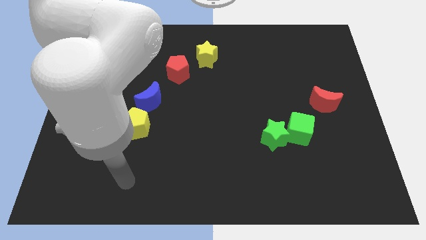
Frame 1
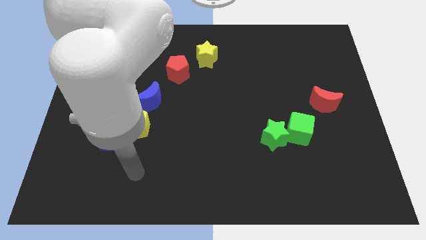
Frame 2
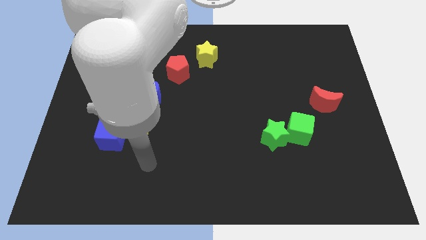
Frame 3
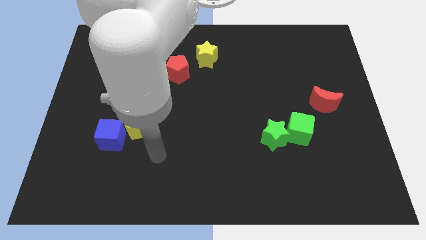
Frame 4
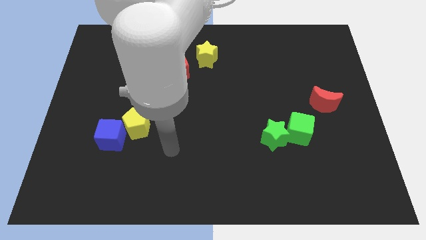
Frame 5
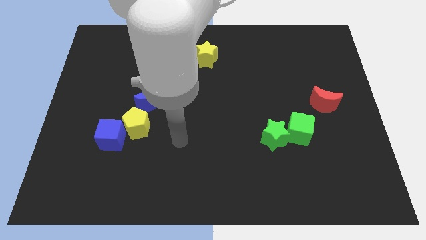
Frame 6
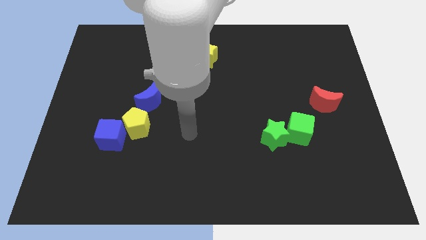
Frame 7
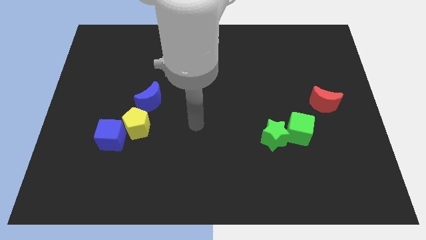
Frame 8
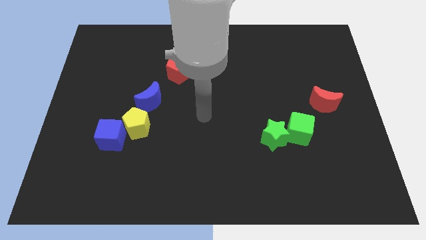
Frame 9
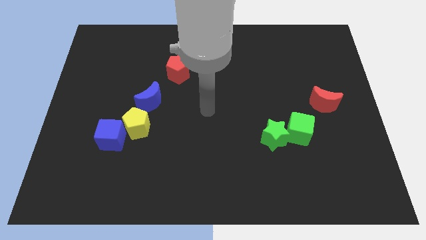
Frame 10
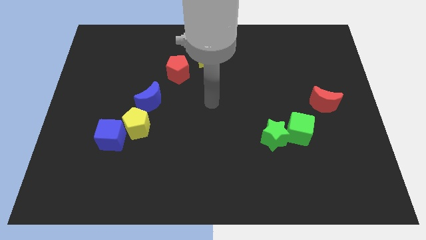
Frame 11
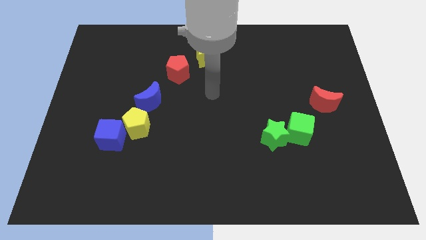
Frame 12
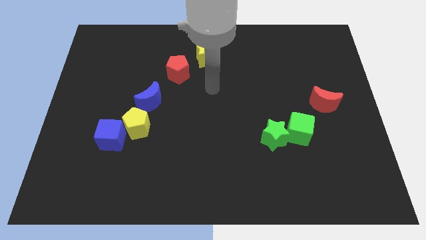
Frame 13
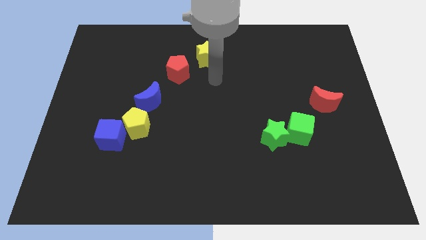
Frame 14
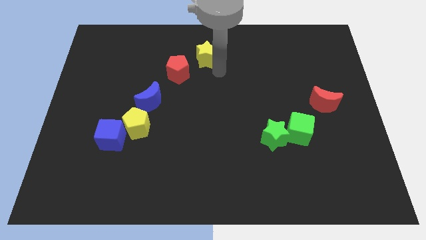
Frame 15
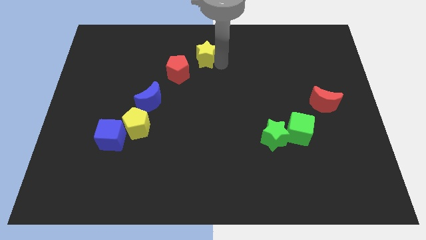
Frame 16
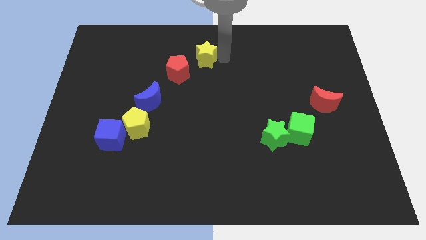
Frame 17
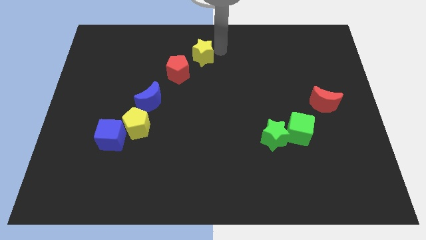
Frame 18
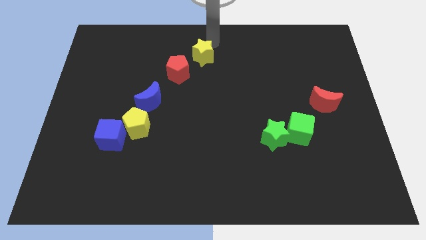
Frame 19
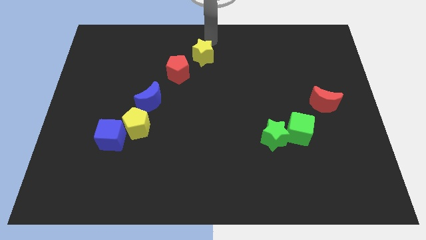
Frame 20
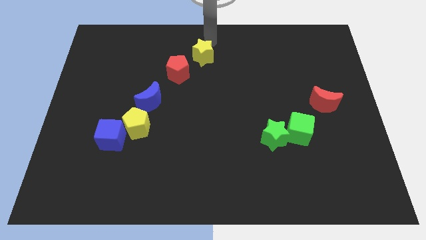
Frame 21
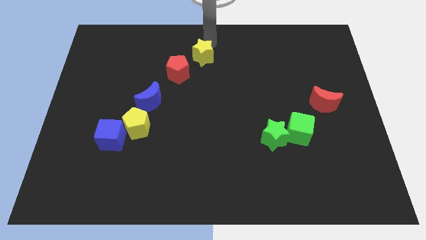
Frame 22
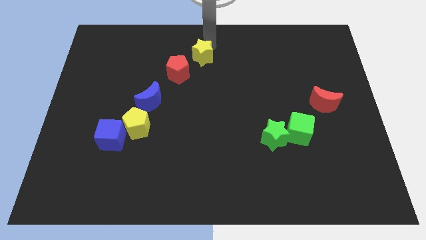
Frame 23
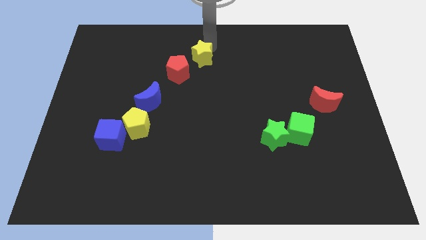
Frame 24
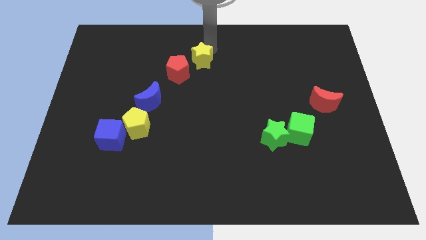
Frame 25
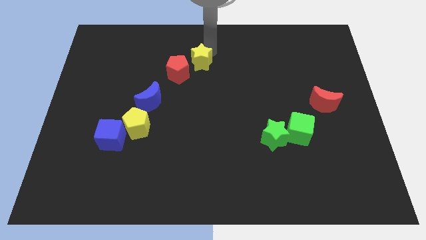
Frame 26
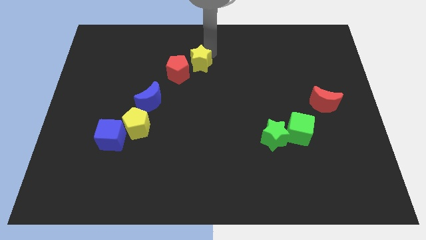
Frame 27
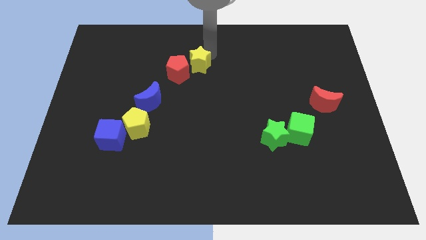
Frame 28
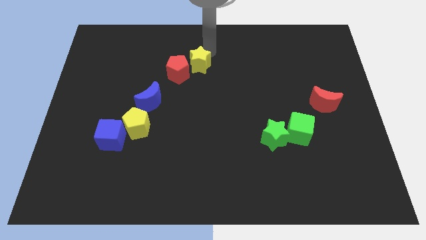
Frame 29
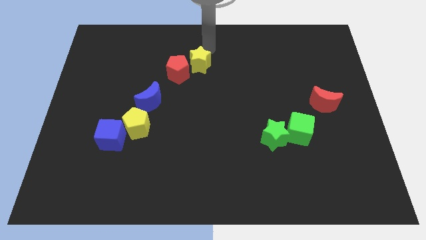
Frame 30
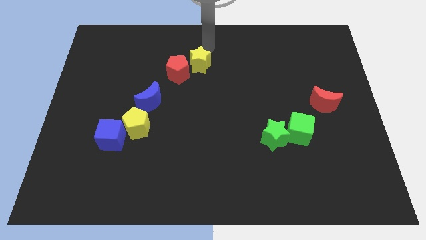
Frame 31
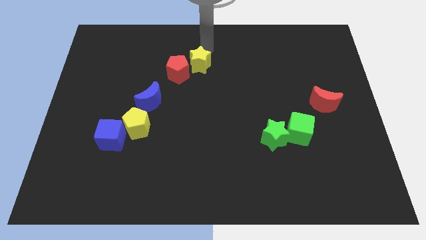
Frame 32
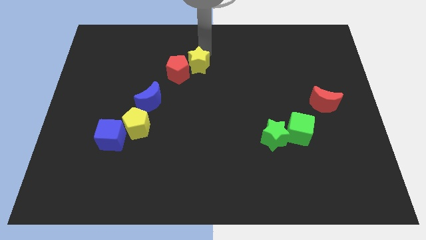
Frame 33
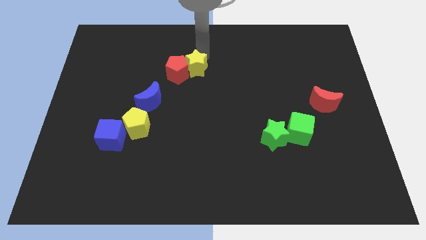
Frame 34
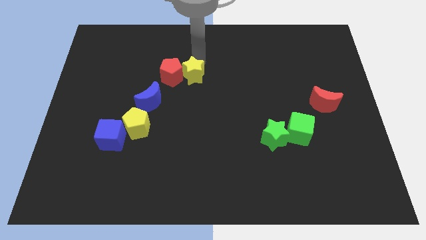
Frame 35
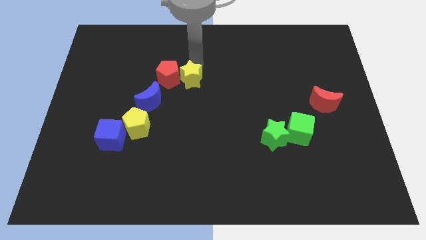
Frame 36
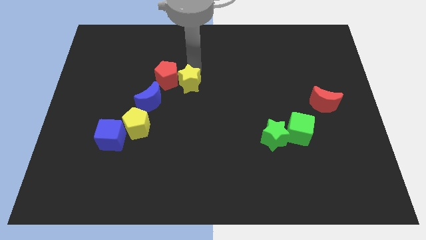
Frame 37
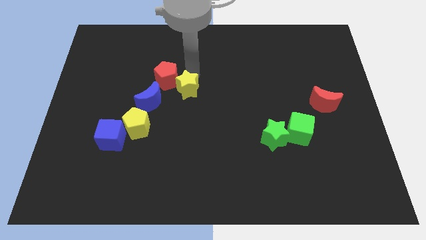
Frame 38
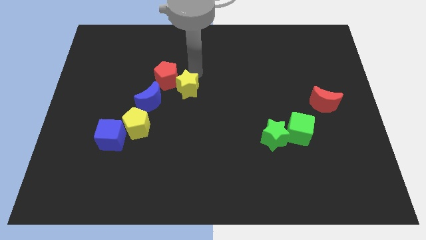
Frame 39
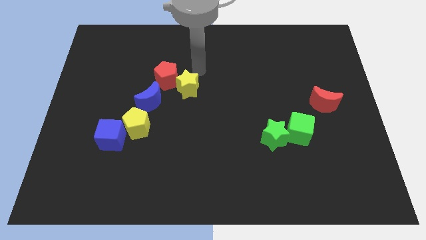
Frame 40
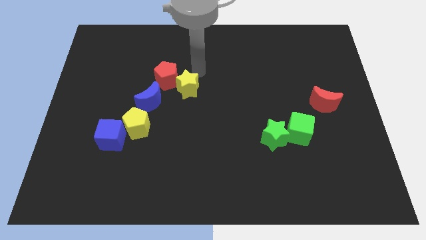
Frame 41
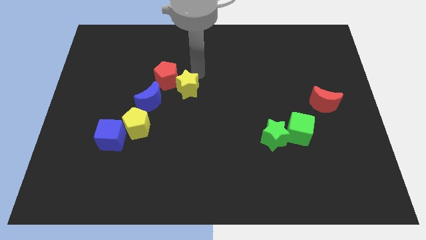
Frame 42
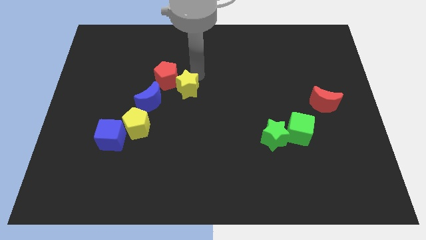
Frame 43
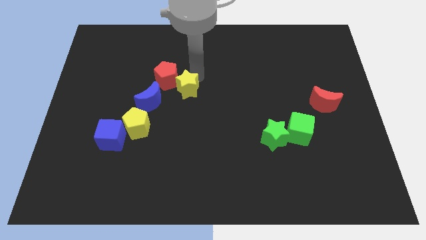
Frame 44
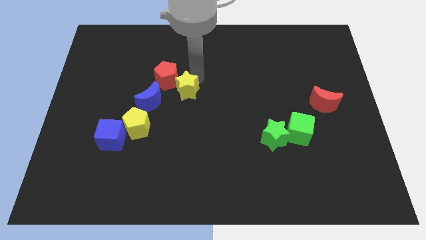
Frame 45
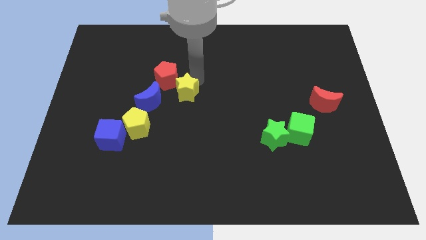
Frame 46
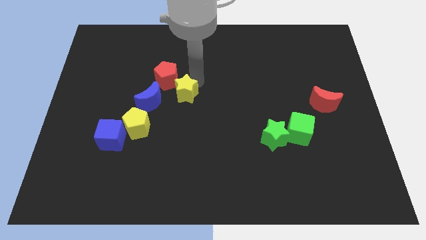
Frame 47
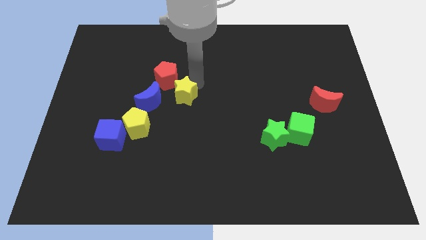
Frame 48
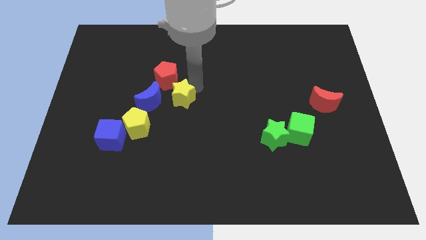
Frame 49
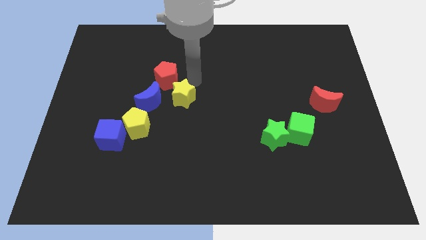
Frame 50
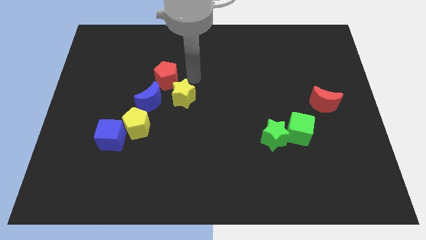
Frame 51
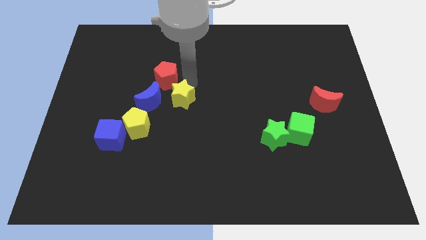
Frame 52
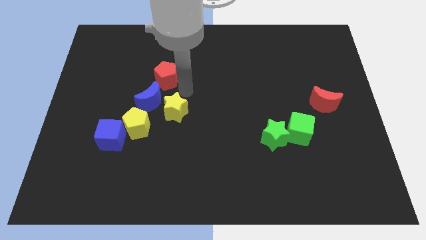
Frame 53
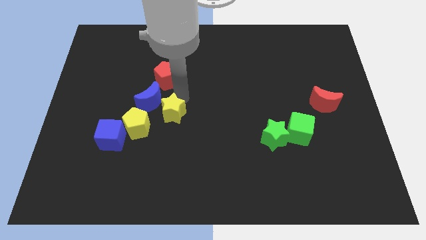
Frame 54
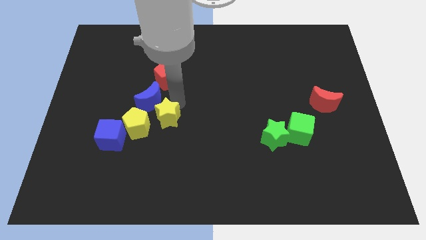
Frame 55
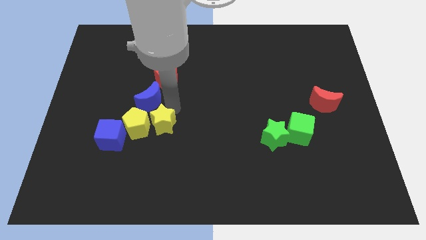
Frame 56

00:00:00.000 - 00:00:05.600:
move the yellow star just right of the blue cube

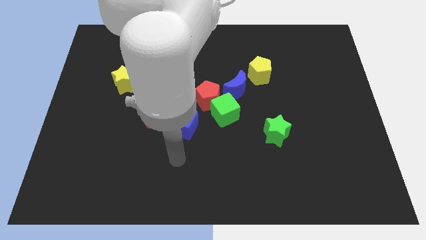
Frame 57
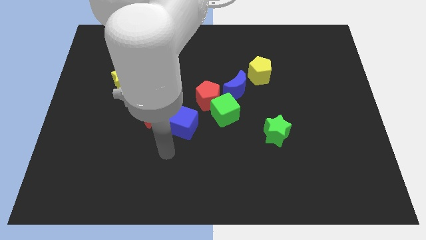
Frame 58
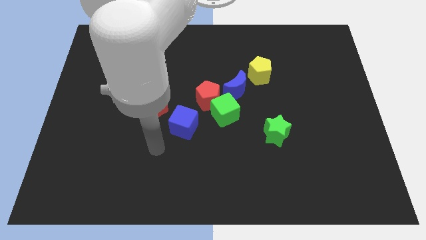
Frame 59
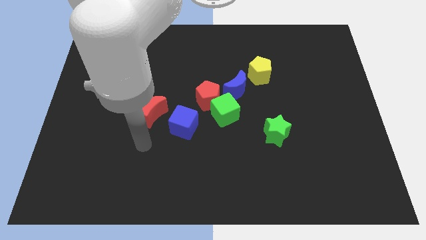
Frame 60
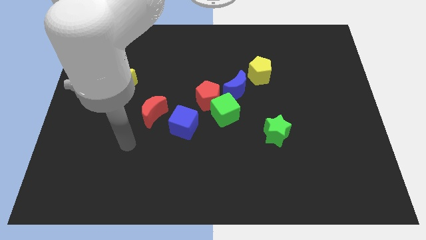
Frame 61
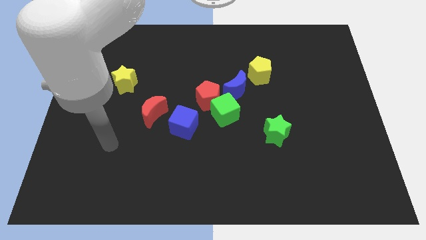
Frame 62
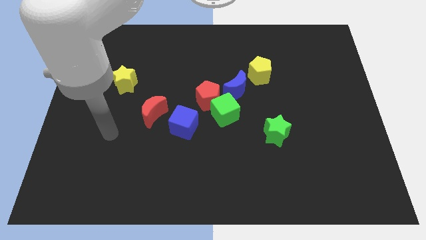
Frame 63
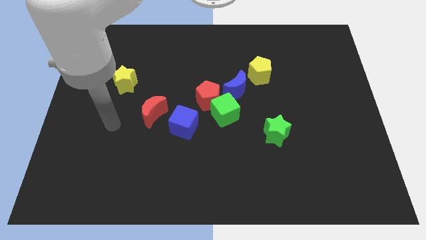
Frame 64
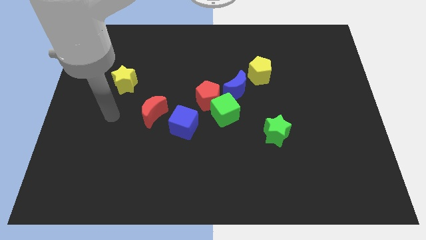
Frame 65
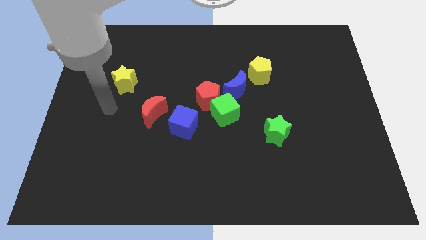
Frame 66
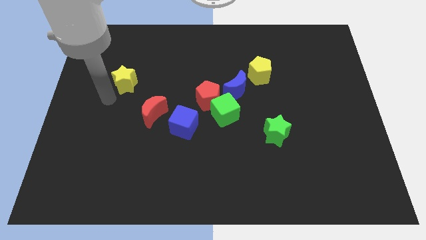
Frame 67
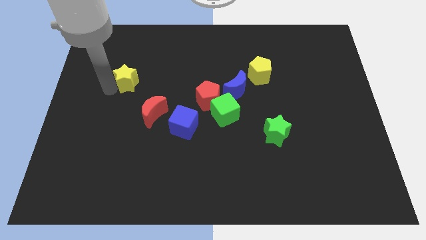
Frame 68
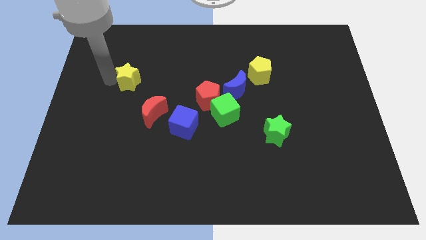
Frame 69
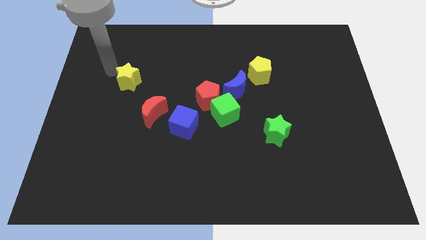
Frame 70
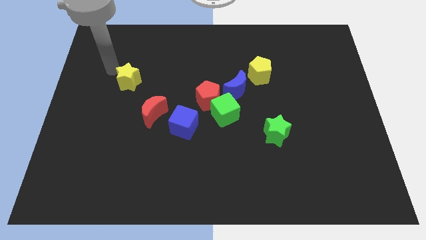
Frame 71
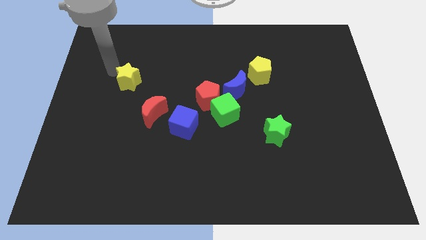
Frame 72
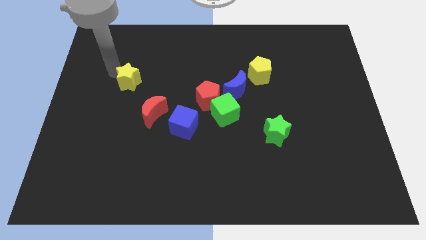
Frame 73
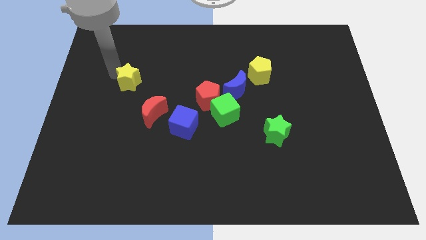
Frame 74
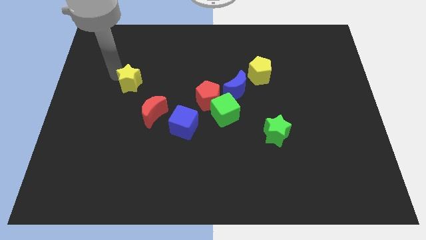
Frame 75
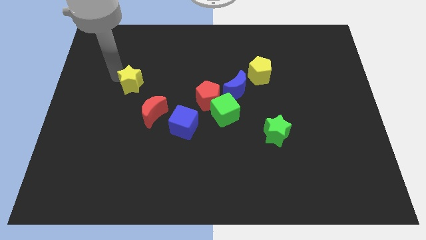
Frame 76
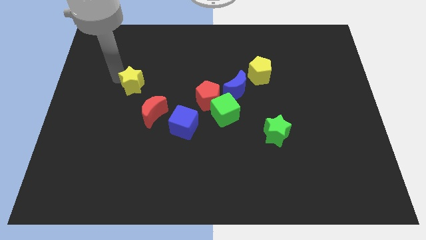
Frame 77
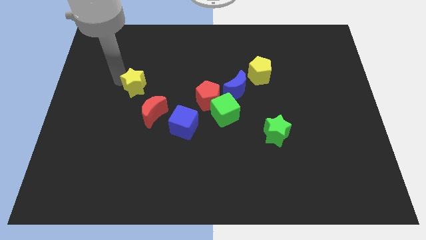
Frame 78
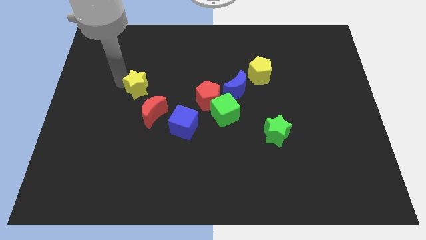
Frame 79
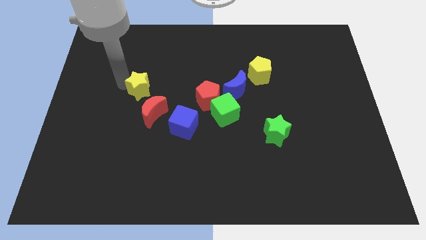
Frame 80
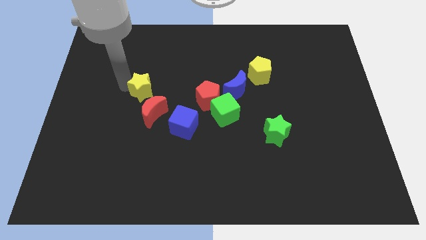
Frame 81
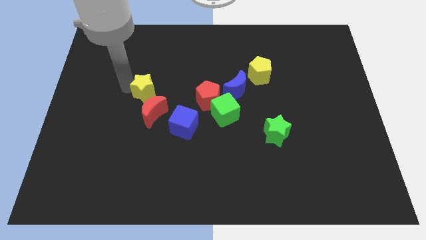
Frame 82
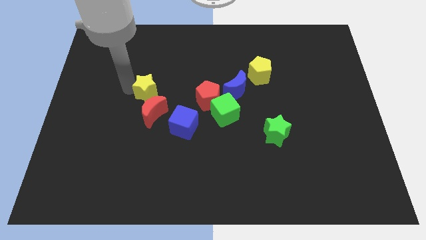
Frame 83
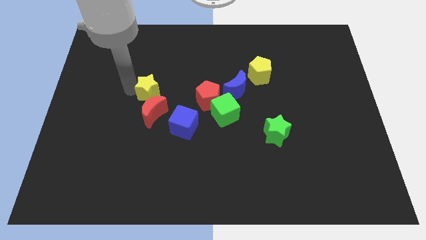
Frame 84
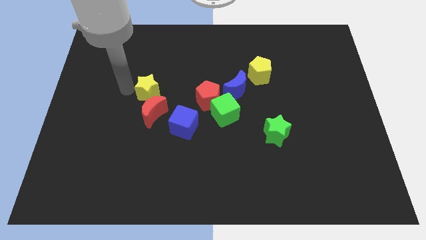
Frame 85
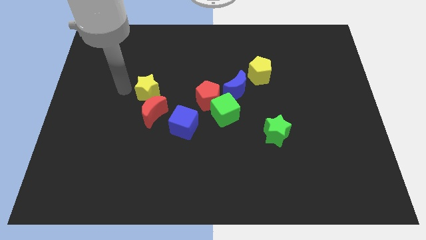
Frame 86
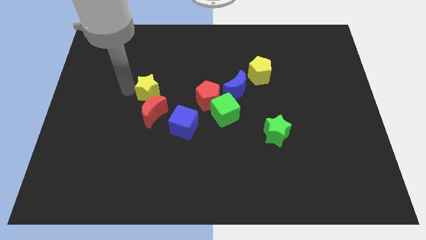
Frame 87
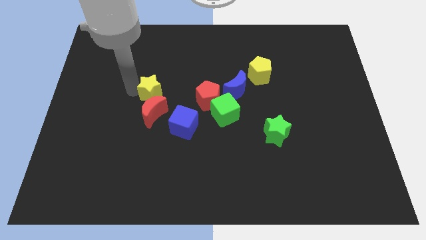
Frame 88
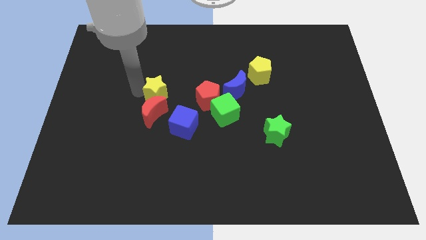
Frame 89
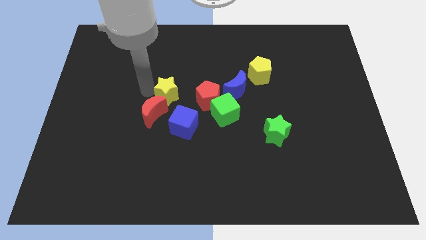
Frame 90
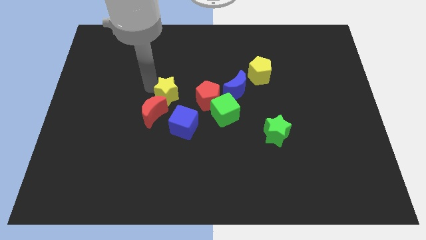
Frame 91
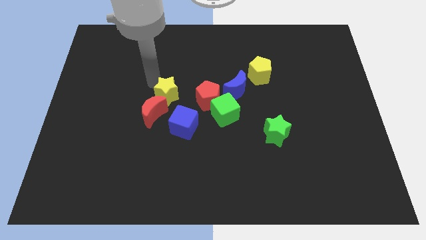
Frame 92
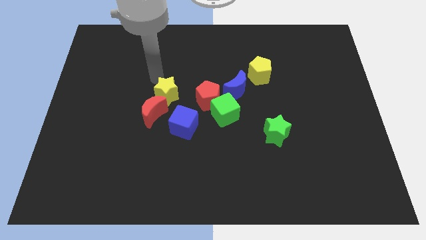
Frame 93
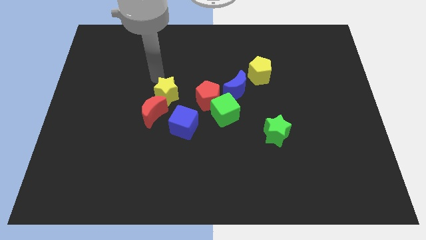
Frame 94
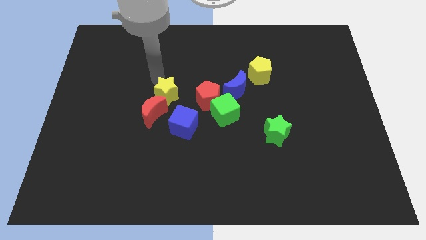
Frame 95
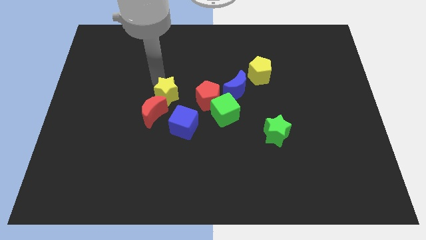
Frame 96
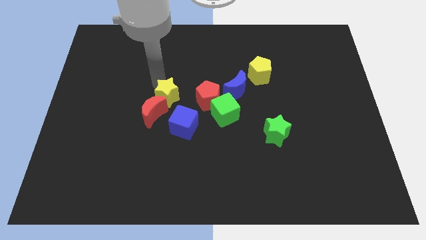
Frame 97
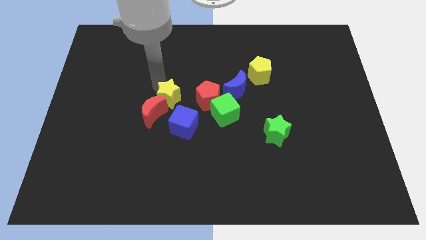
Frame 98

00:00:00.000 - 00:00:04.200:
push the yellow star left of the green cube
